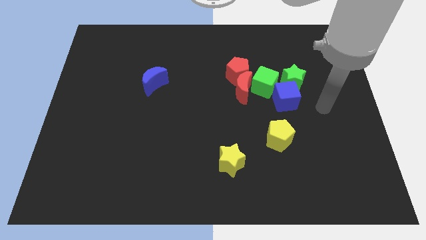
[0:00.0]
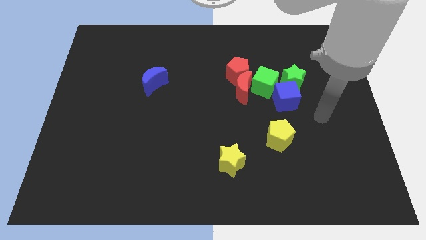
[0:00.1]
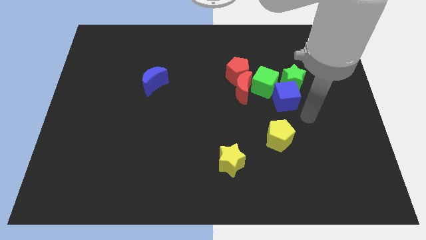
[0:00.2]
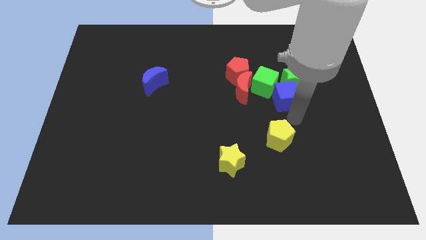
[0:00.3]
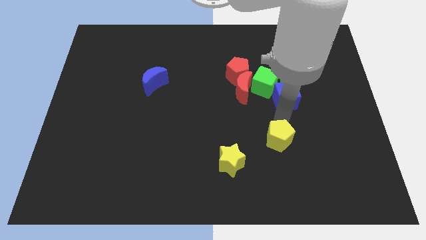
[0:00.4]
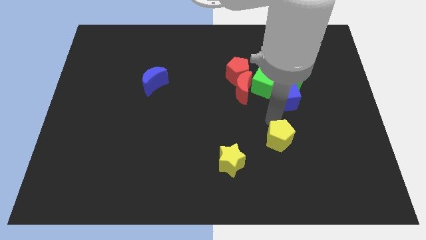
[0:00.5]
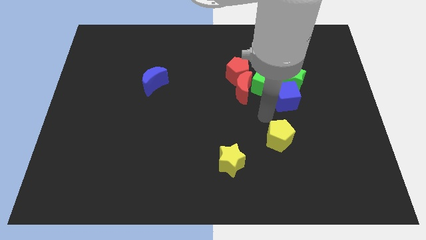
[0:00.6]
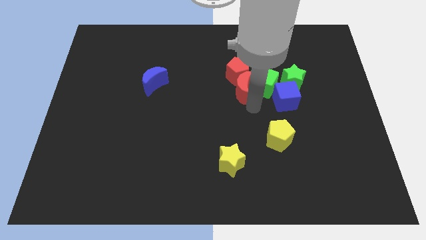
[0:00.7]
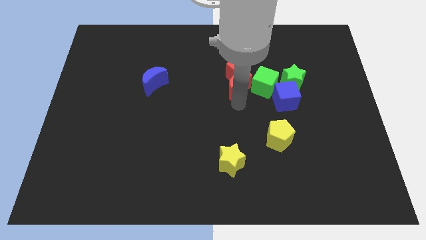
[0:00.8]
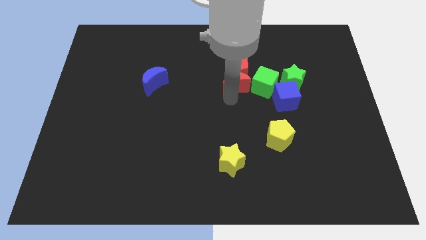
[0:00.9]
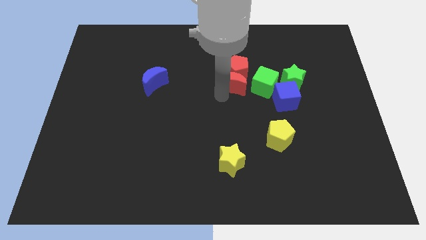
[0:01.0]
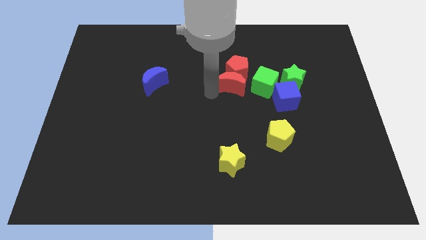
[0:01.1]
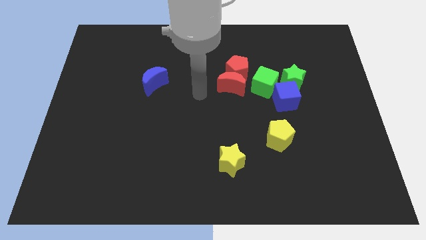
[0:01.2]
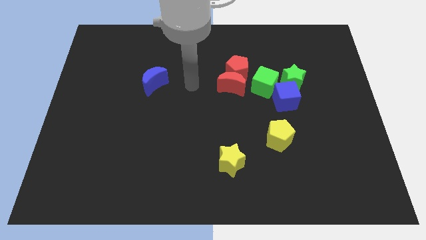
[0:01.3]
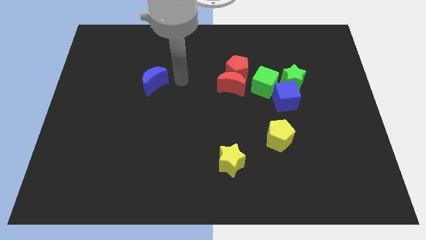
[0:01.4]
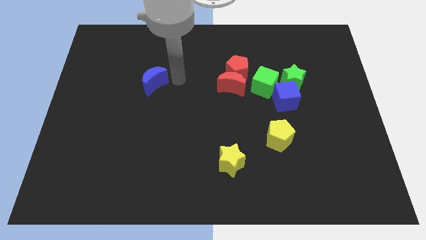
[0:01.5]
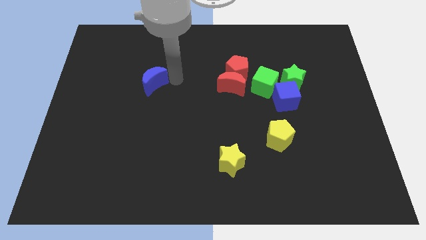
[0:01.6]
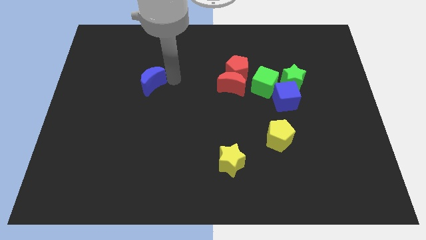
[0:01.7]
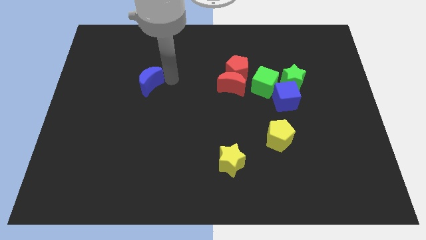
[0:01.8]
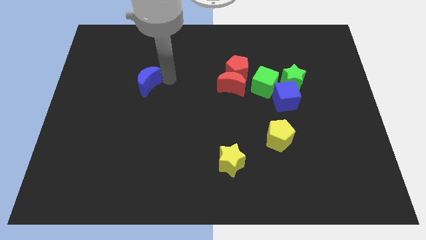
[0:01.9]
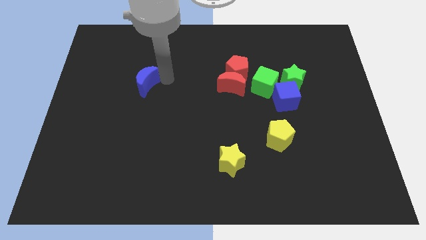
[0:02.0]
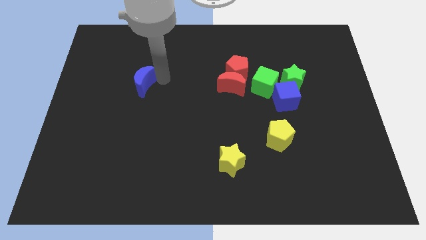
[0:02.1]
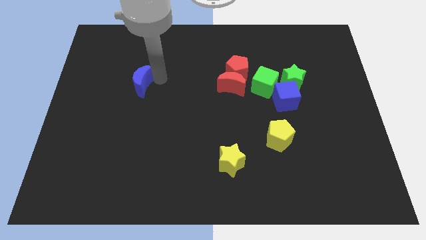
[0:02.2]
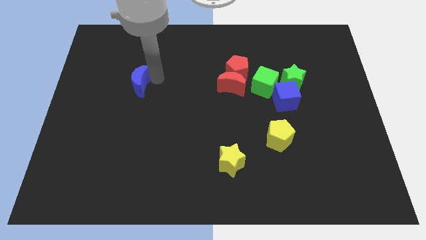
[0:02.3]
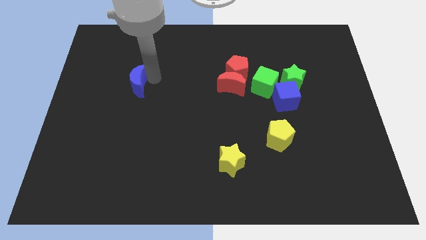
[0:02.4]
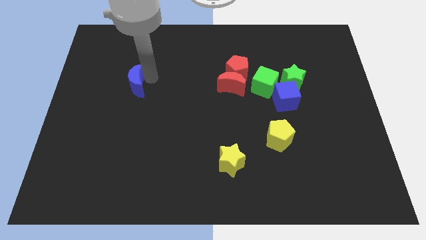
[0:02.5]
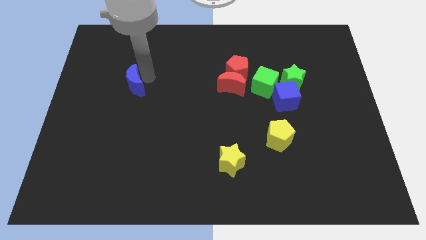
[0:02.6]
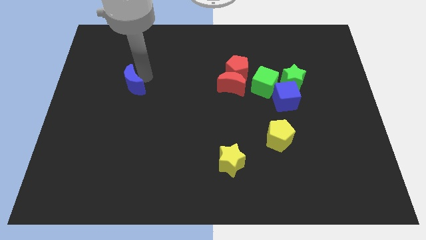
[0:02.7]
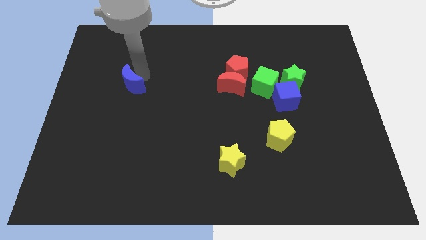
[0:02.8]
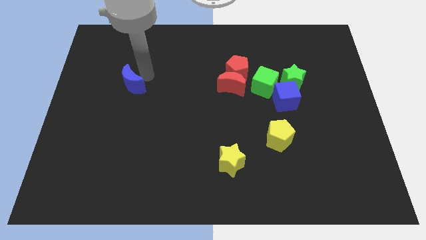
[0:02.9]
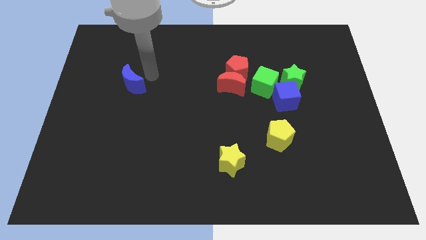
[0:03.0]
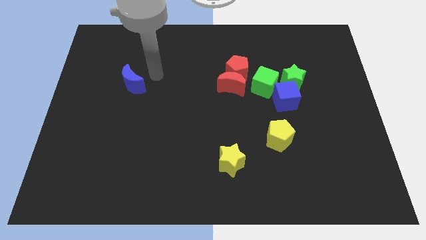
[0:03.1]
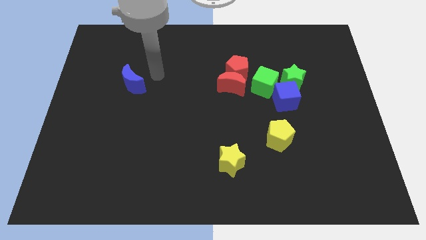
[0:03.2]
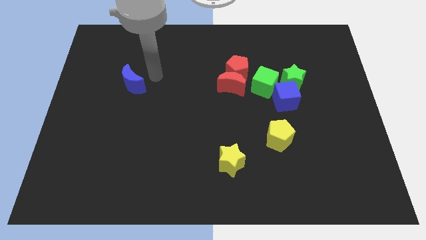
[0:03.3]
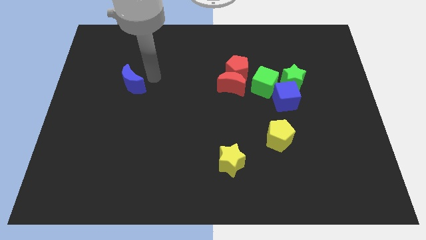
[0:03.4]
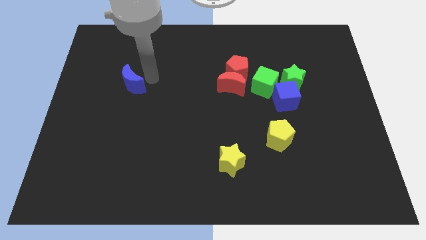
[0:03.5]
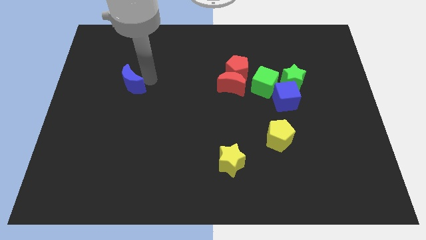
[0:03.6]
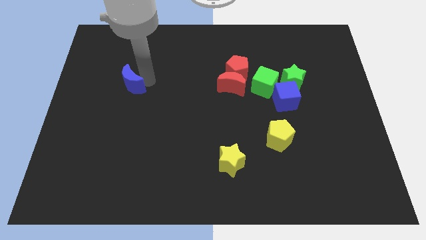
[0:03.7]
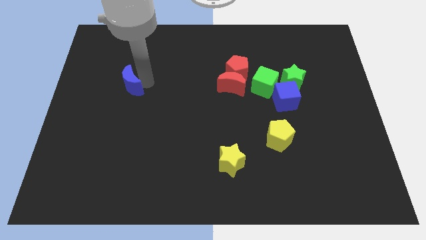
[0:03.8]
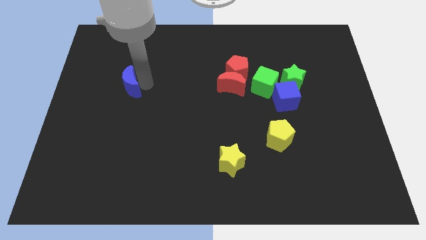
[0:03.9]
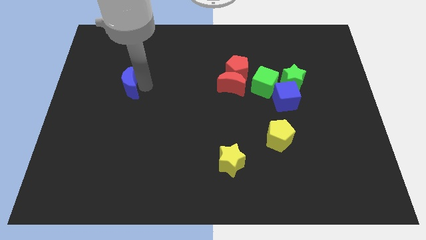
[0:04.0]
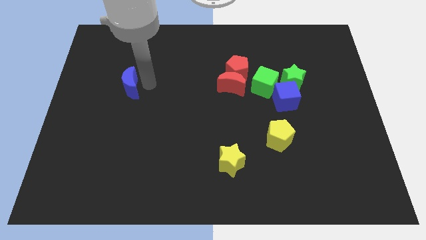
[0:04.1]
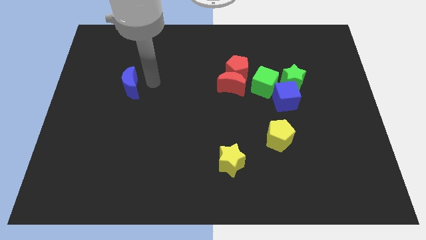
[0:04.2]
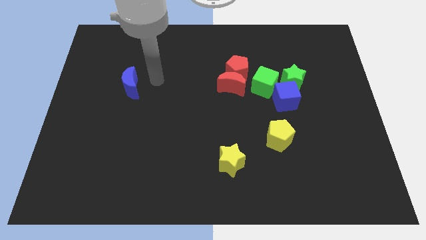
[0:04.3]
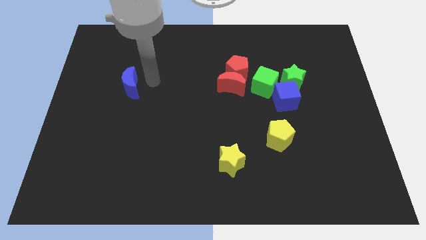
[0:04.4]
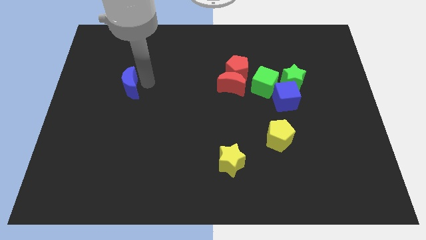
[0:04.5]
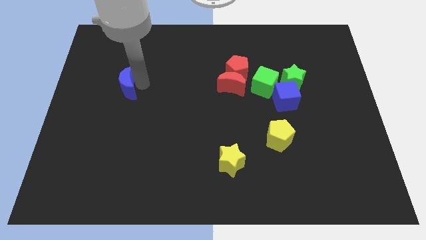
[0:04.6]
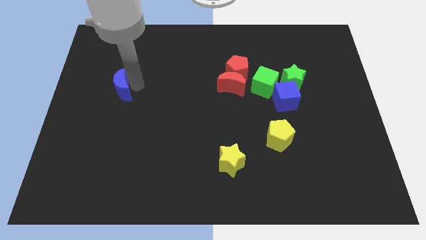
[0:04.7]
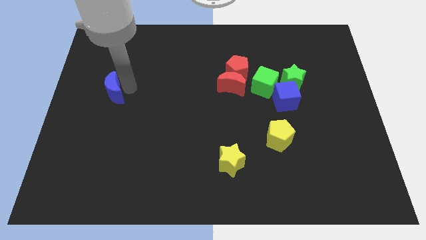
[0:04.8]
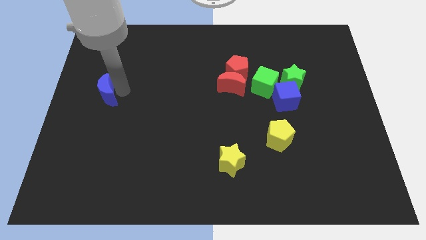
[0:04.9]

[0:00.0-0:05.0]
move the blue moon to the left side

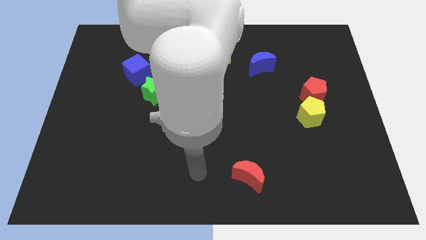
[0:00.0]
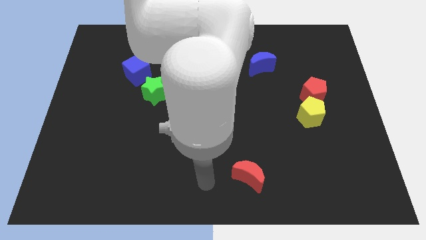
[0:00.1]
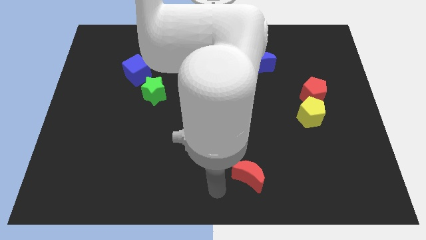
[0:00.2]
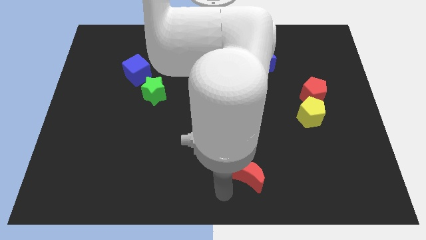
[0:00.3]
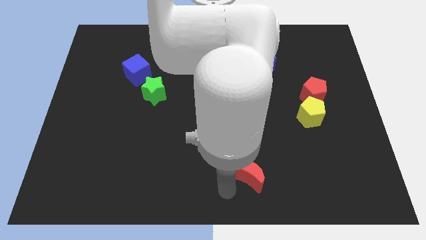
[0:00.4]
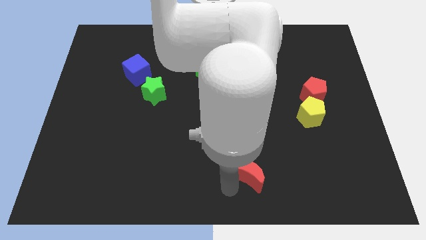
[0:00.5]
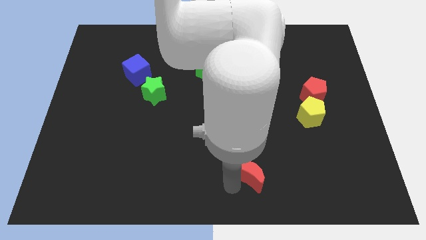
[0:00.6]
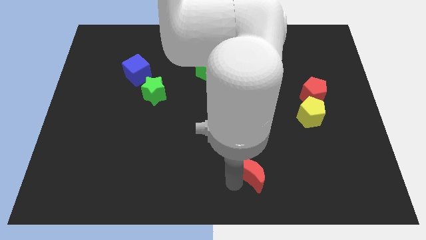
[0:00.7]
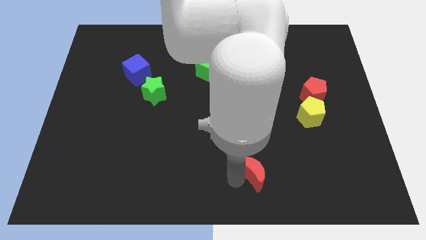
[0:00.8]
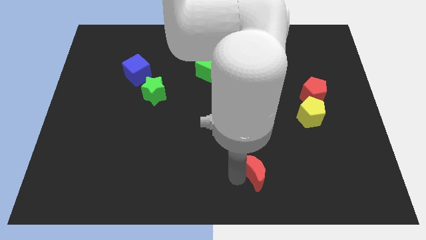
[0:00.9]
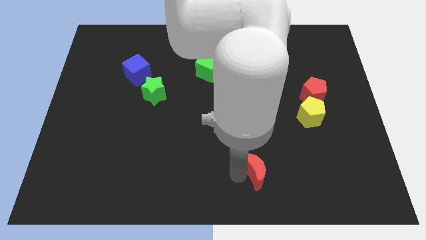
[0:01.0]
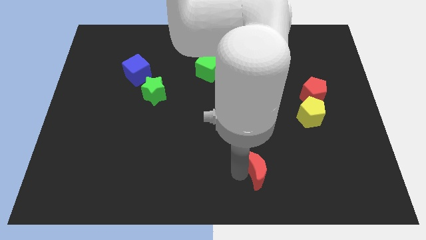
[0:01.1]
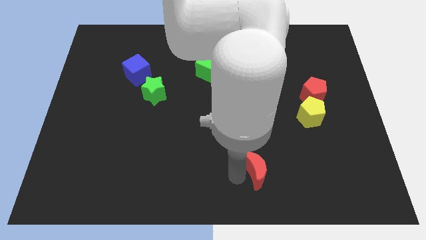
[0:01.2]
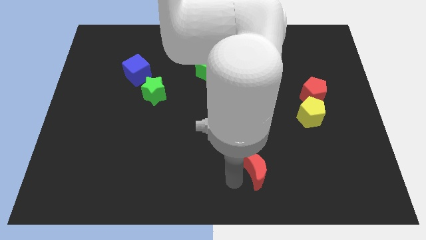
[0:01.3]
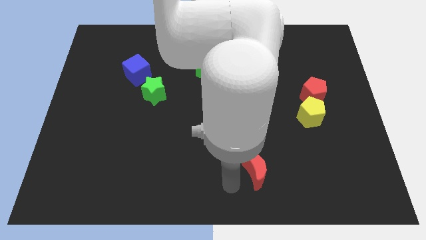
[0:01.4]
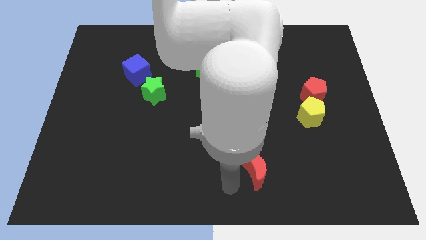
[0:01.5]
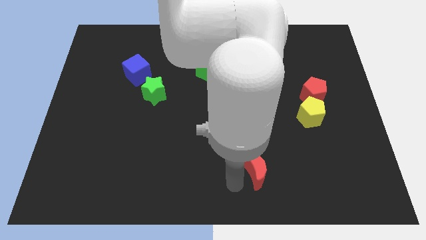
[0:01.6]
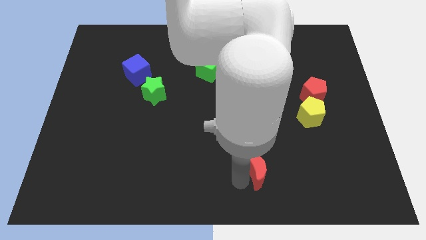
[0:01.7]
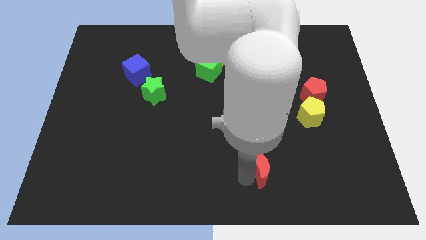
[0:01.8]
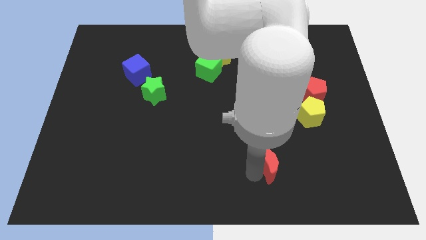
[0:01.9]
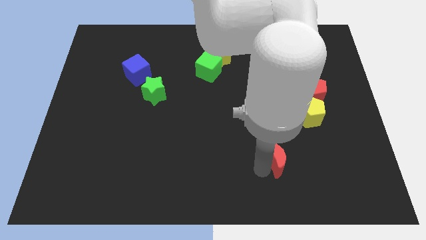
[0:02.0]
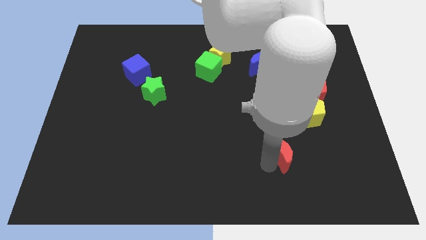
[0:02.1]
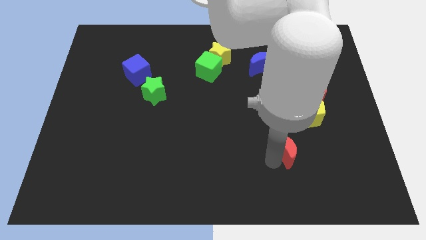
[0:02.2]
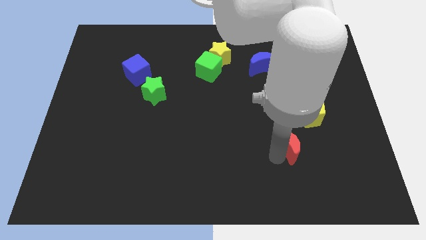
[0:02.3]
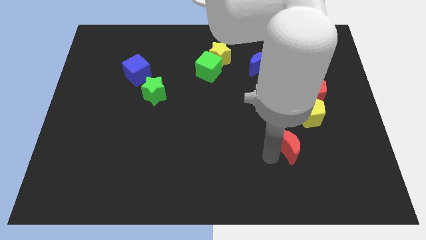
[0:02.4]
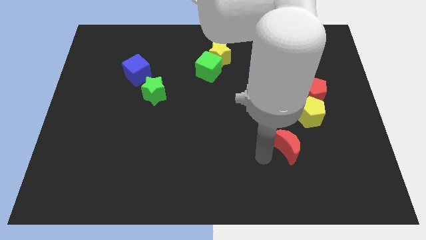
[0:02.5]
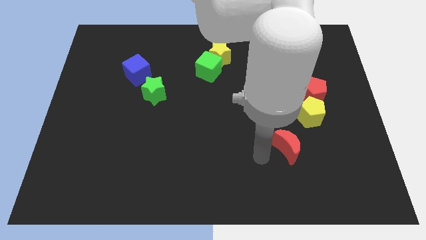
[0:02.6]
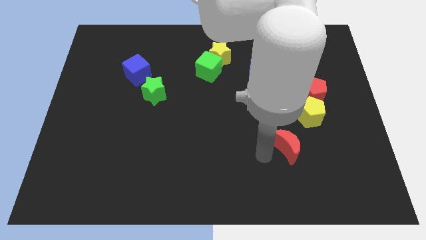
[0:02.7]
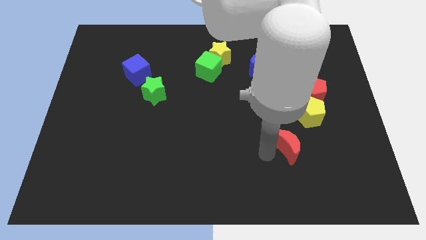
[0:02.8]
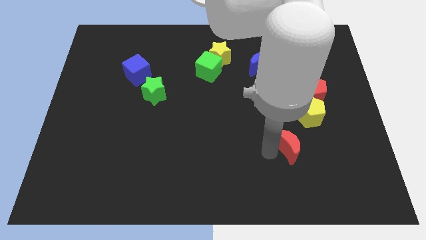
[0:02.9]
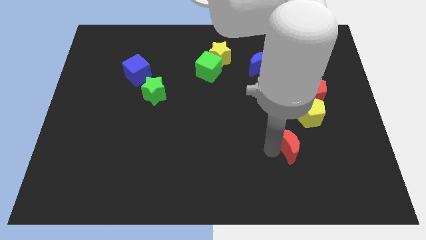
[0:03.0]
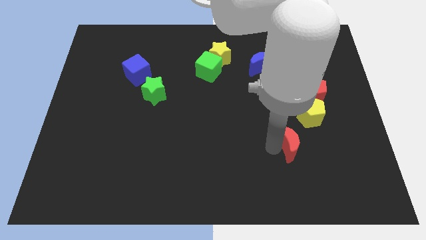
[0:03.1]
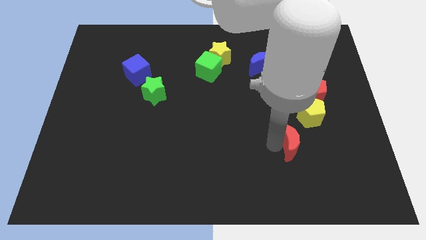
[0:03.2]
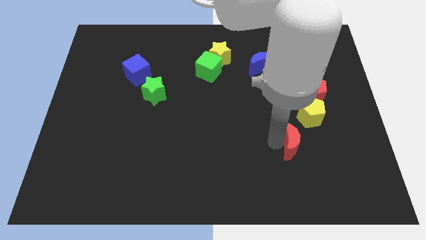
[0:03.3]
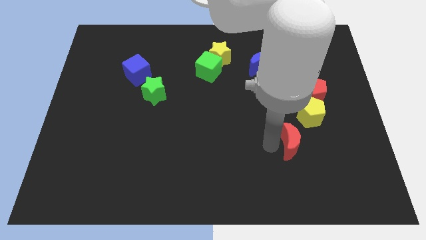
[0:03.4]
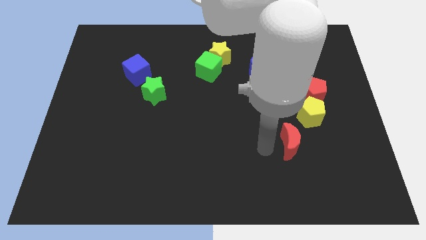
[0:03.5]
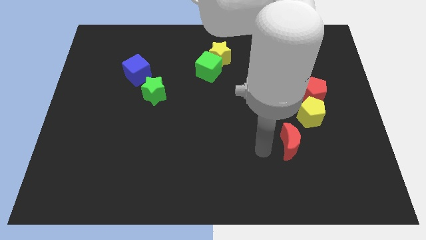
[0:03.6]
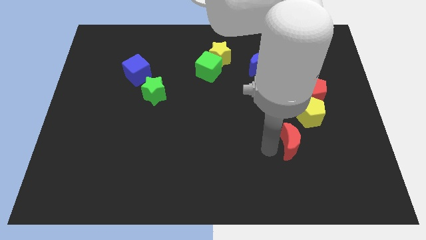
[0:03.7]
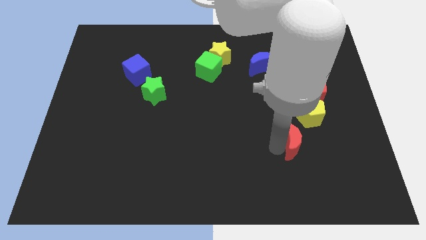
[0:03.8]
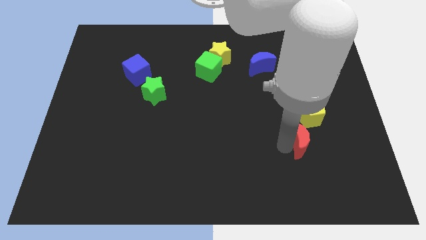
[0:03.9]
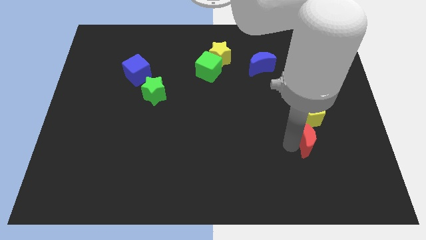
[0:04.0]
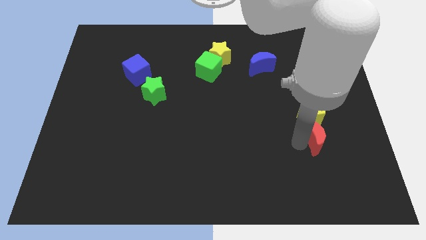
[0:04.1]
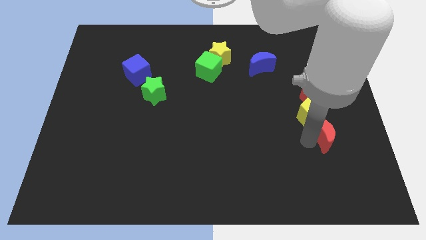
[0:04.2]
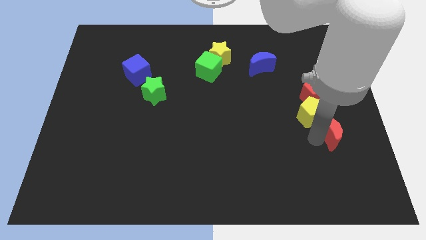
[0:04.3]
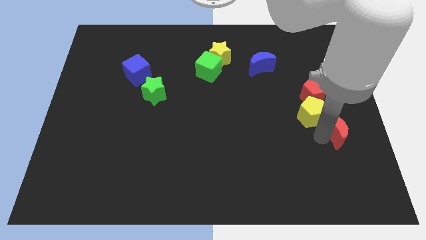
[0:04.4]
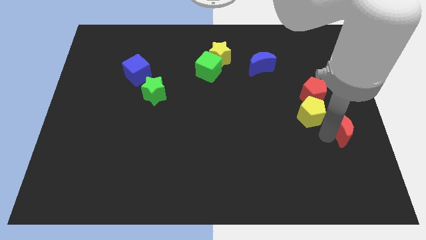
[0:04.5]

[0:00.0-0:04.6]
slide the red moon to the right side of the board
